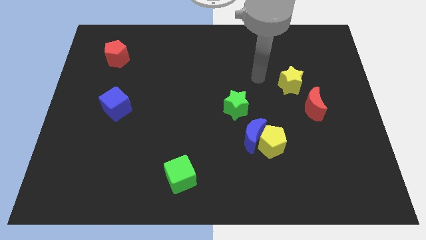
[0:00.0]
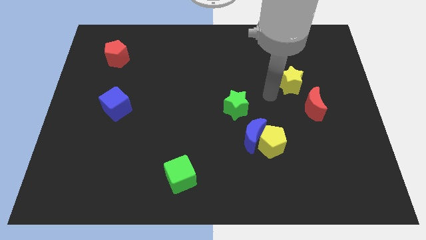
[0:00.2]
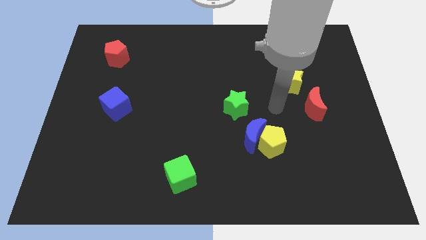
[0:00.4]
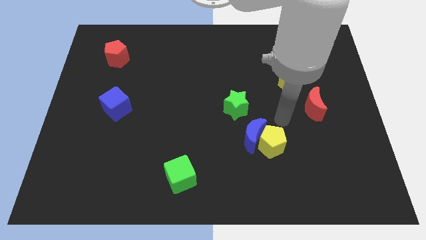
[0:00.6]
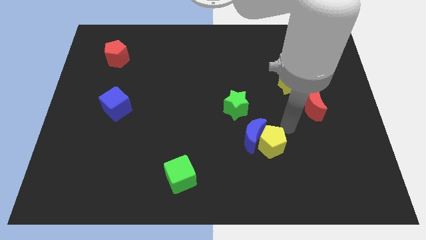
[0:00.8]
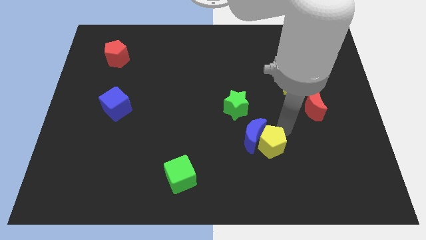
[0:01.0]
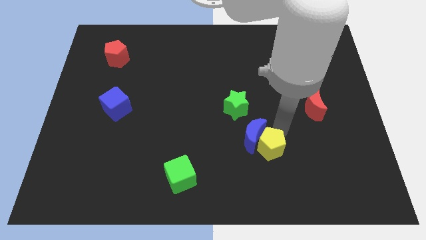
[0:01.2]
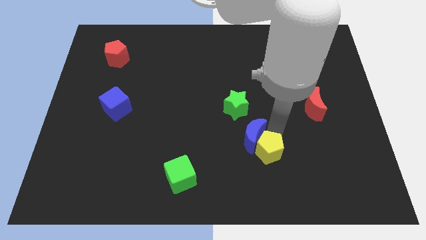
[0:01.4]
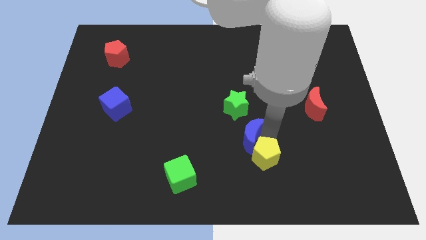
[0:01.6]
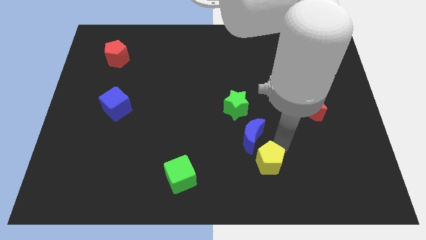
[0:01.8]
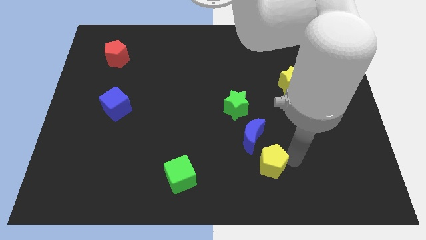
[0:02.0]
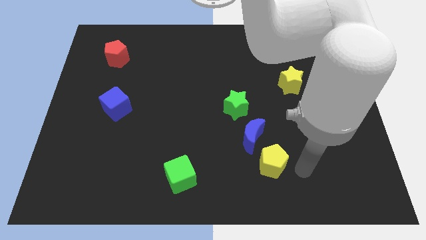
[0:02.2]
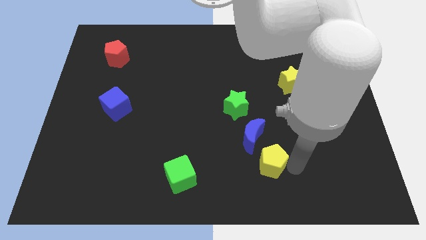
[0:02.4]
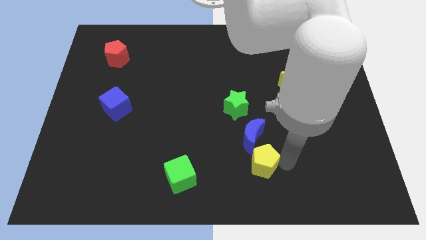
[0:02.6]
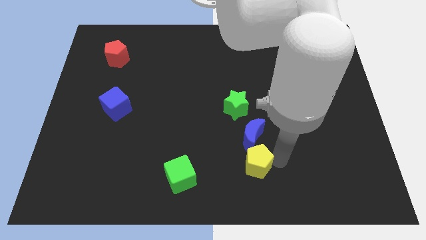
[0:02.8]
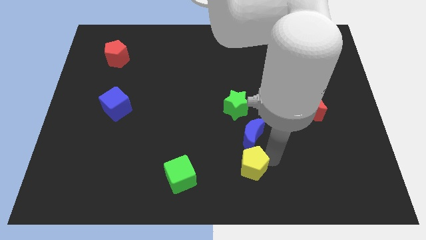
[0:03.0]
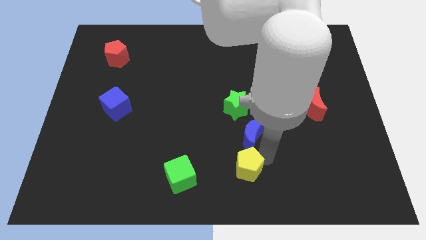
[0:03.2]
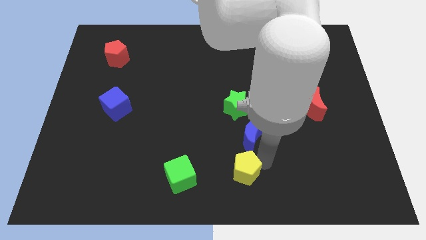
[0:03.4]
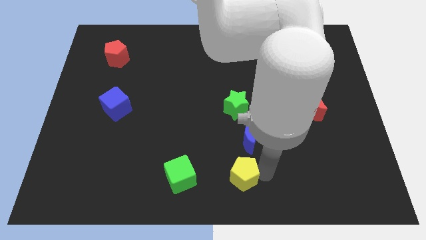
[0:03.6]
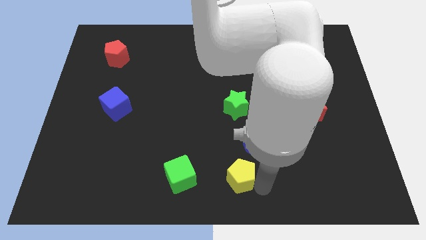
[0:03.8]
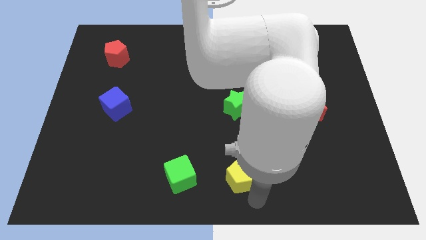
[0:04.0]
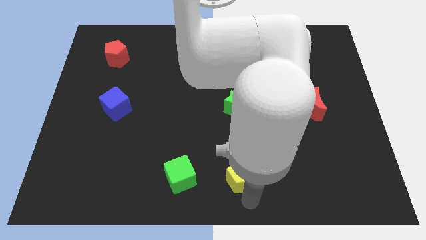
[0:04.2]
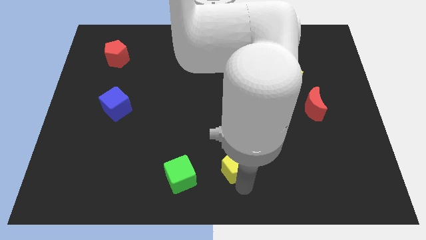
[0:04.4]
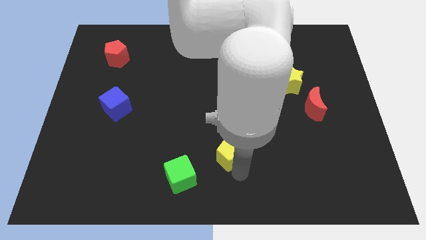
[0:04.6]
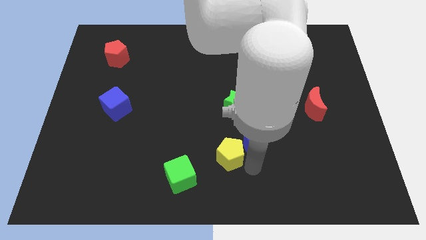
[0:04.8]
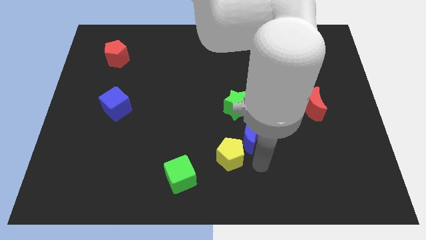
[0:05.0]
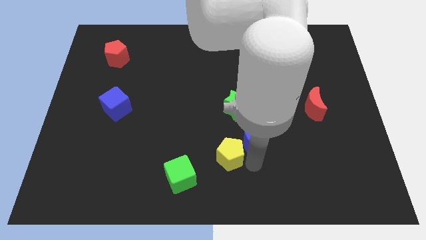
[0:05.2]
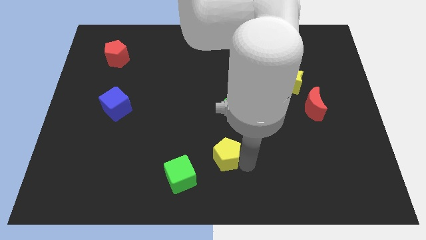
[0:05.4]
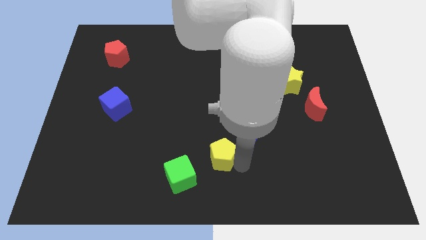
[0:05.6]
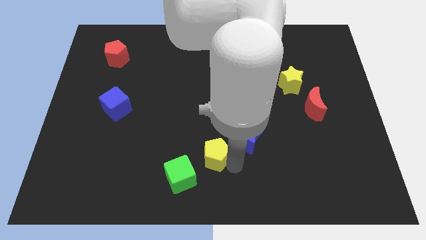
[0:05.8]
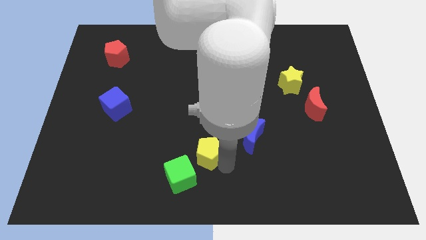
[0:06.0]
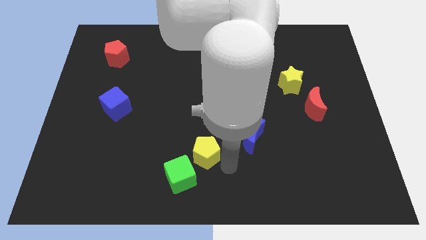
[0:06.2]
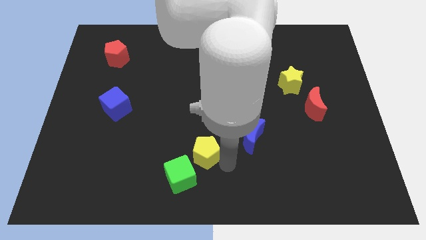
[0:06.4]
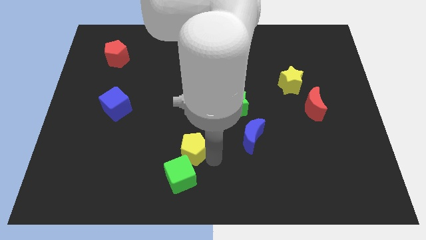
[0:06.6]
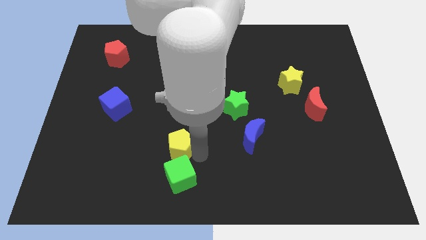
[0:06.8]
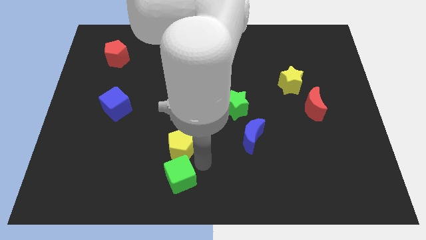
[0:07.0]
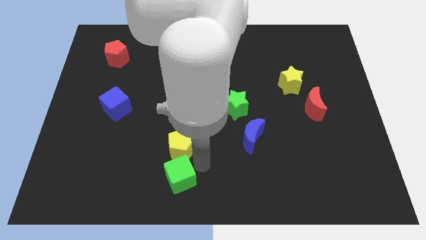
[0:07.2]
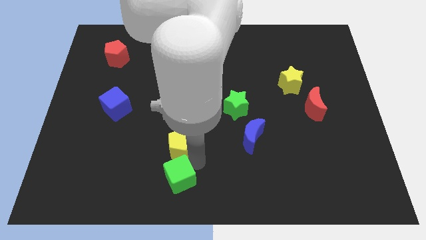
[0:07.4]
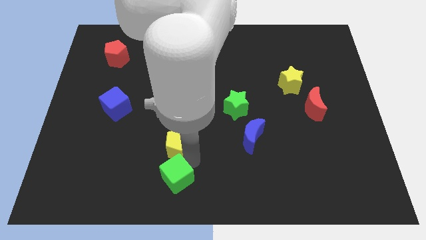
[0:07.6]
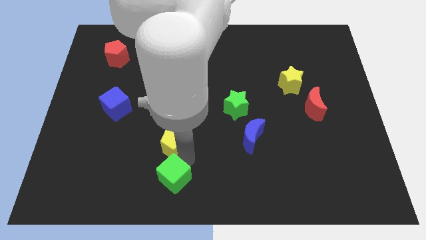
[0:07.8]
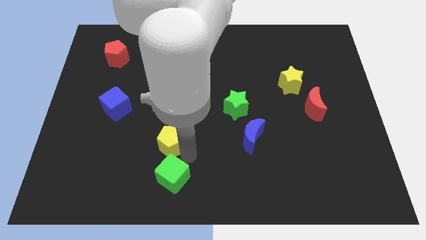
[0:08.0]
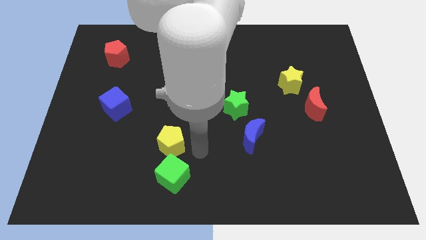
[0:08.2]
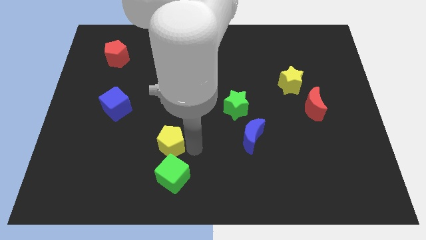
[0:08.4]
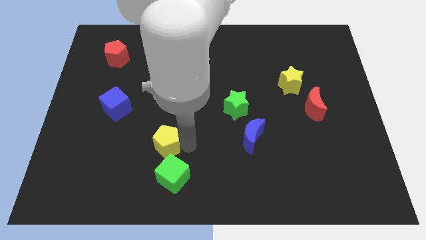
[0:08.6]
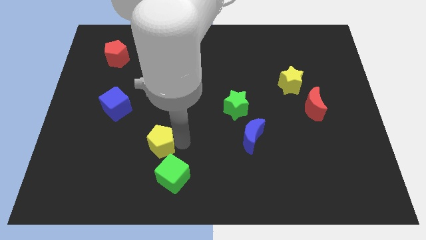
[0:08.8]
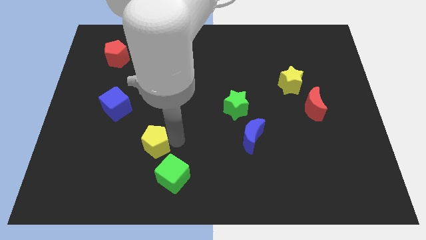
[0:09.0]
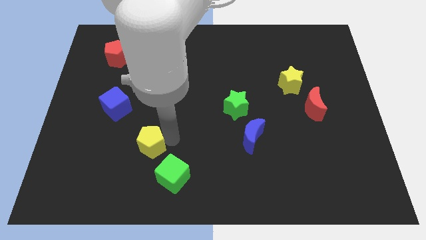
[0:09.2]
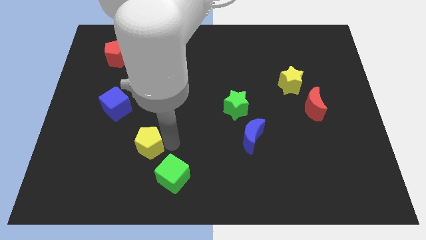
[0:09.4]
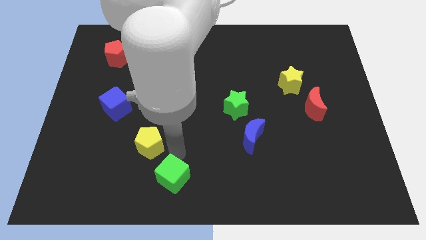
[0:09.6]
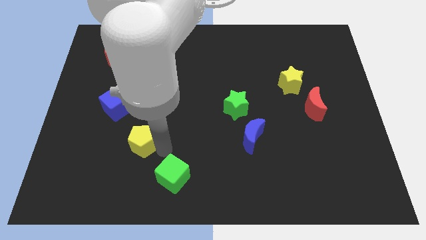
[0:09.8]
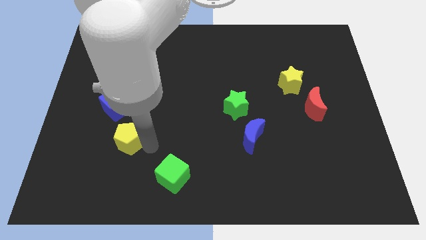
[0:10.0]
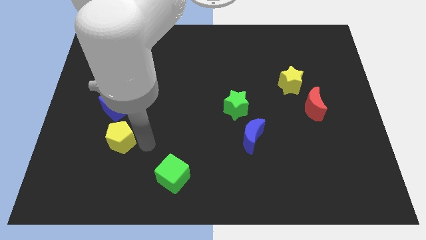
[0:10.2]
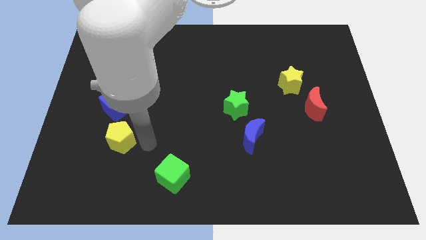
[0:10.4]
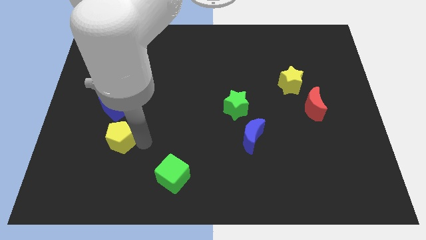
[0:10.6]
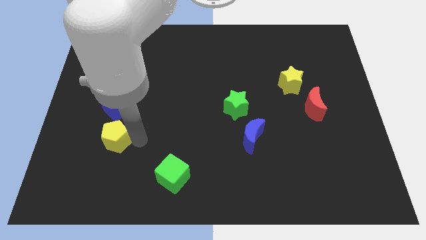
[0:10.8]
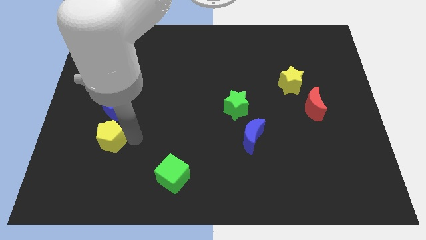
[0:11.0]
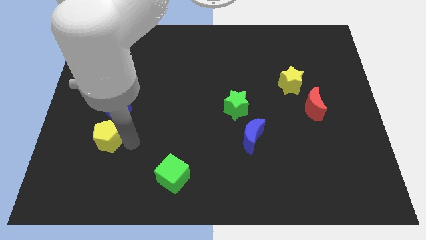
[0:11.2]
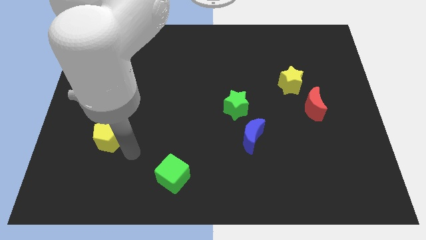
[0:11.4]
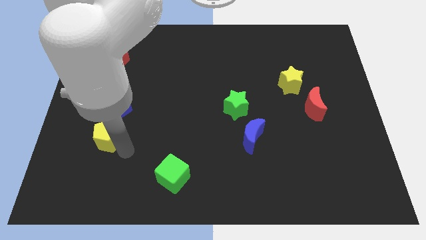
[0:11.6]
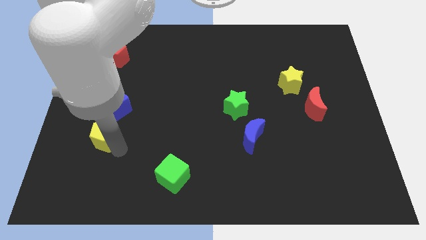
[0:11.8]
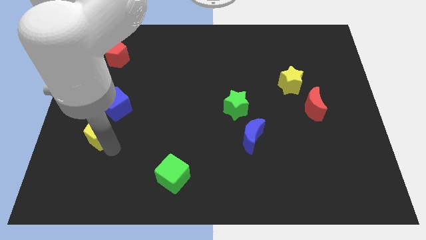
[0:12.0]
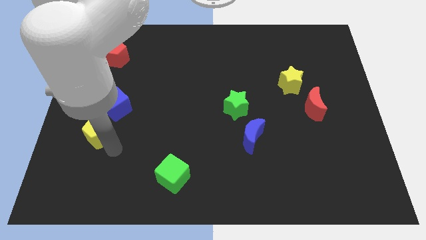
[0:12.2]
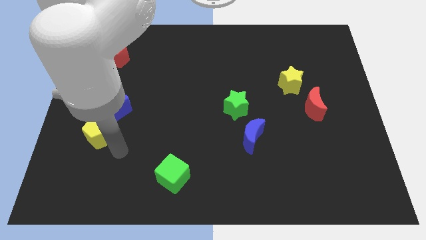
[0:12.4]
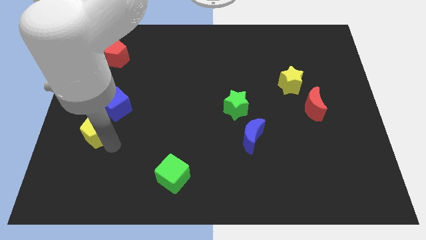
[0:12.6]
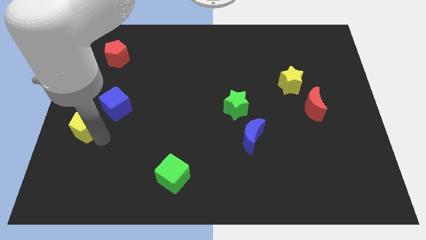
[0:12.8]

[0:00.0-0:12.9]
move the yellow pentagon to the left side of the board
